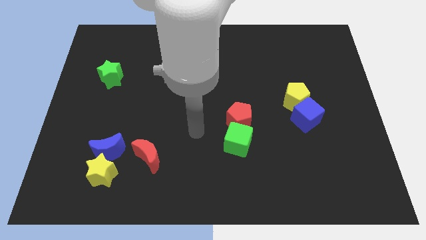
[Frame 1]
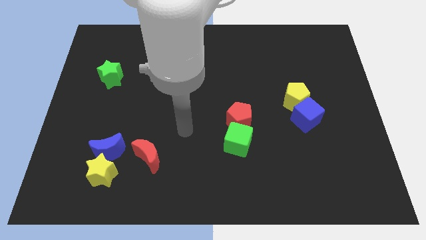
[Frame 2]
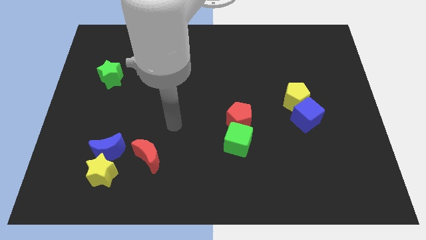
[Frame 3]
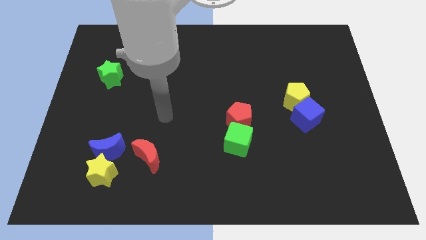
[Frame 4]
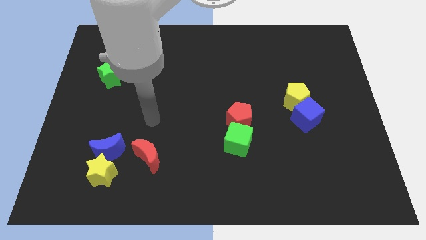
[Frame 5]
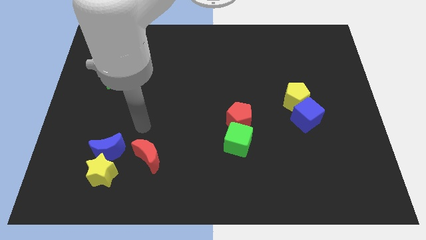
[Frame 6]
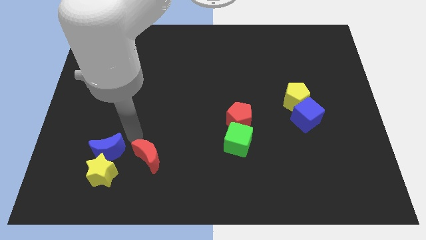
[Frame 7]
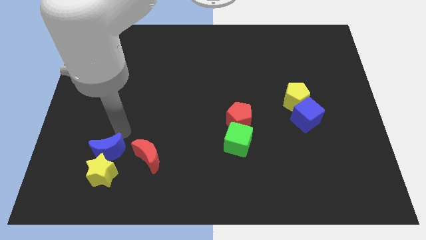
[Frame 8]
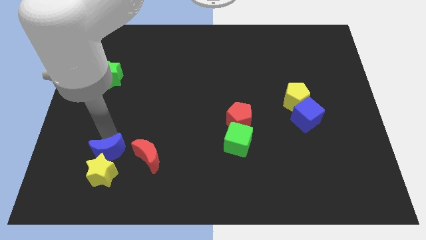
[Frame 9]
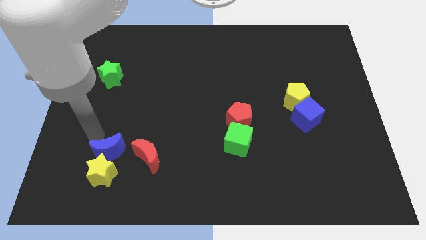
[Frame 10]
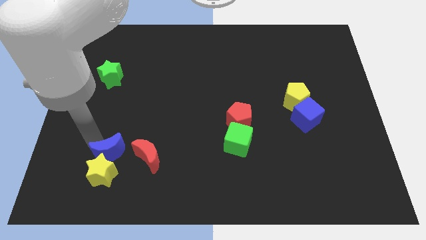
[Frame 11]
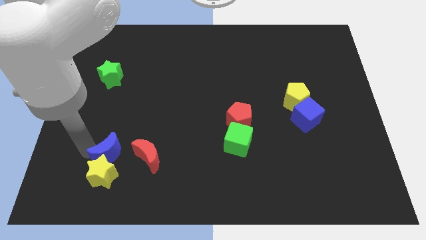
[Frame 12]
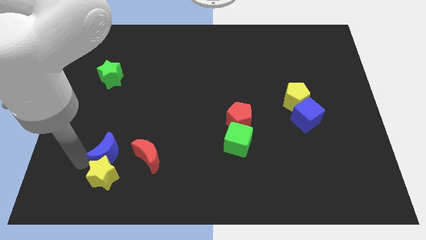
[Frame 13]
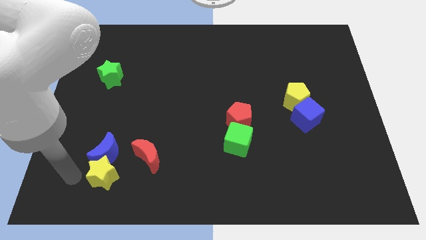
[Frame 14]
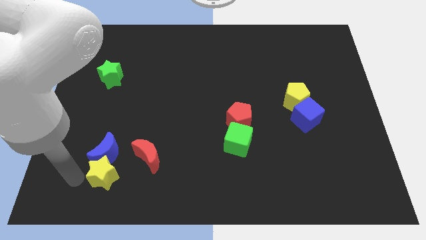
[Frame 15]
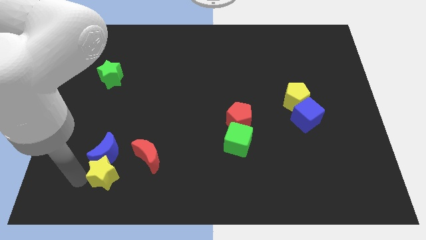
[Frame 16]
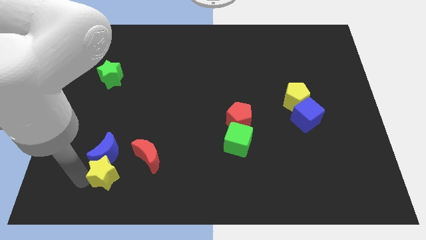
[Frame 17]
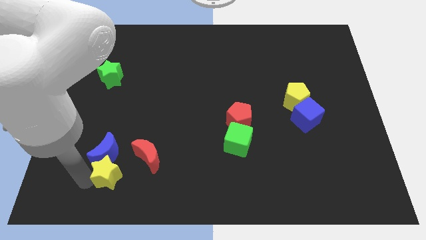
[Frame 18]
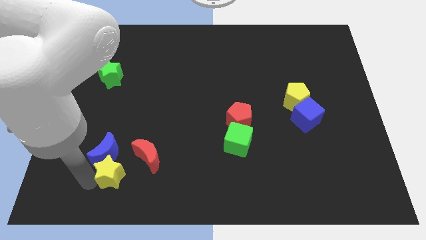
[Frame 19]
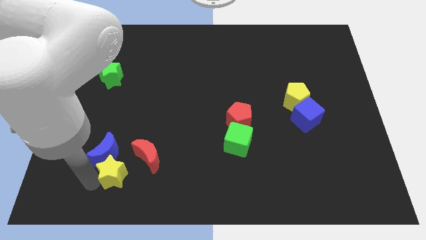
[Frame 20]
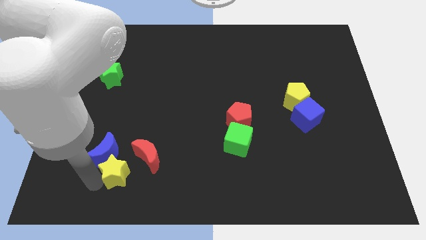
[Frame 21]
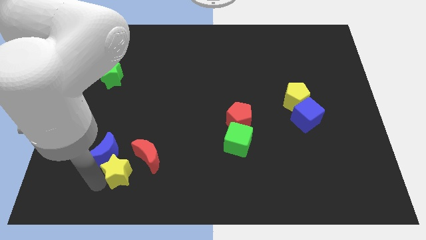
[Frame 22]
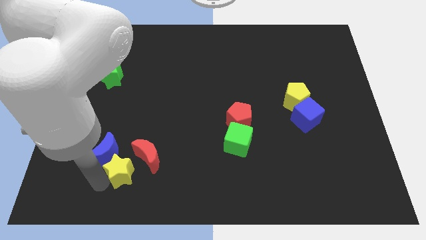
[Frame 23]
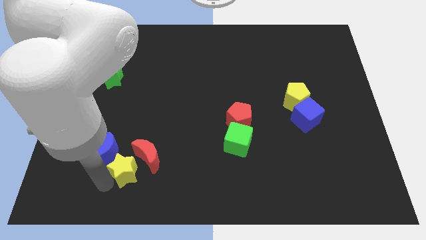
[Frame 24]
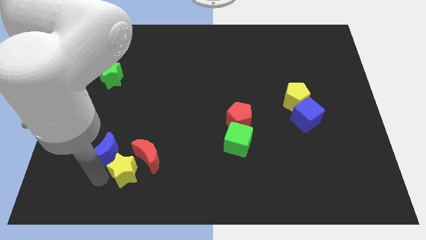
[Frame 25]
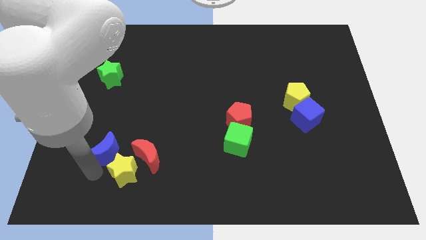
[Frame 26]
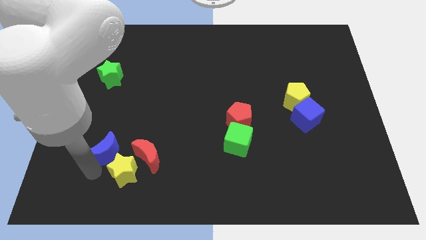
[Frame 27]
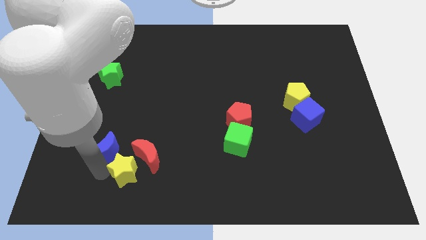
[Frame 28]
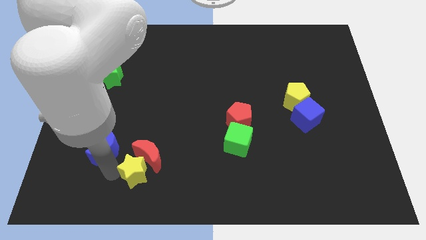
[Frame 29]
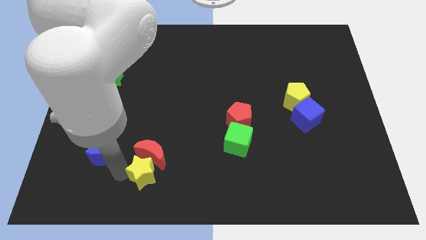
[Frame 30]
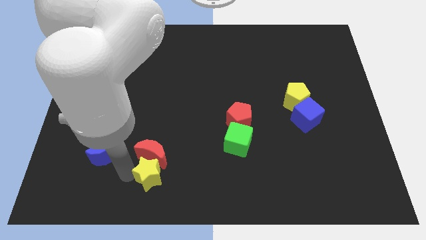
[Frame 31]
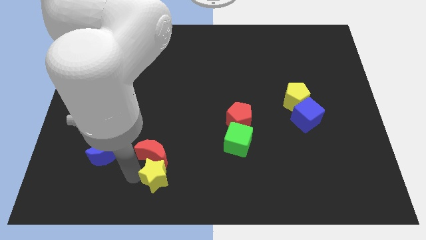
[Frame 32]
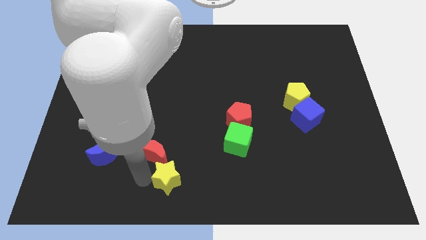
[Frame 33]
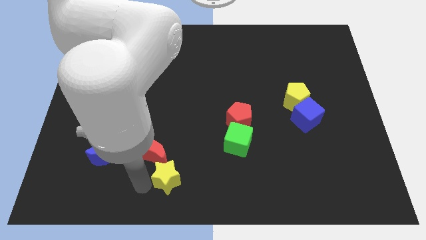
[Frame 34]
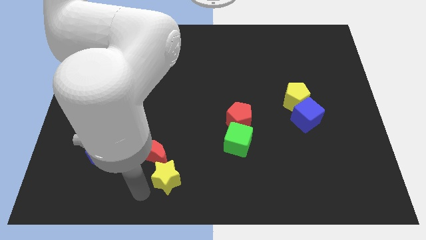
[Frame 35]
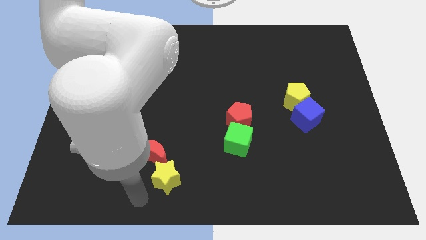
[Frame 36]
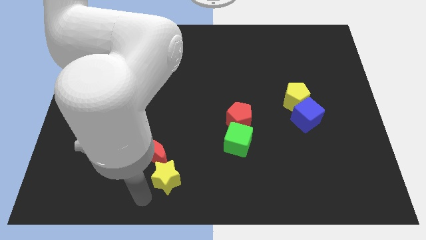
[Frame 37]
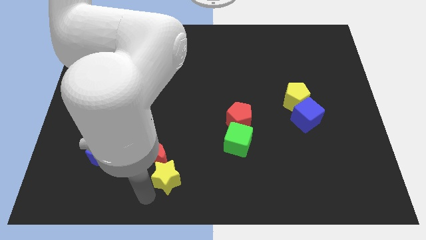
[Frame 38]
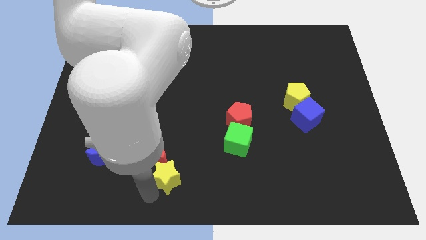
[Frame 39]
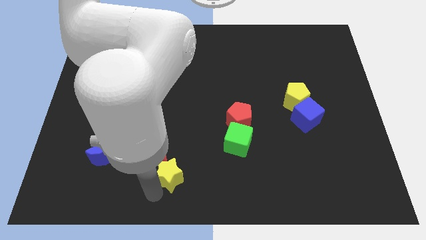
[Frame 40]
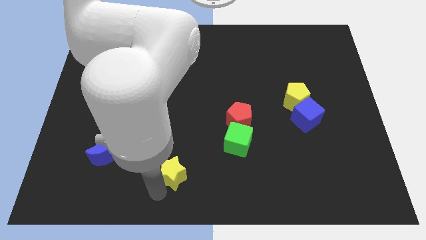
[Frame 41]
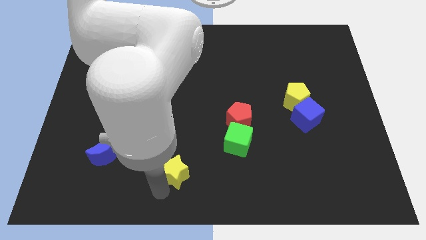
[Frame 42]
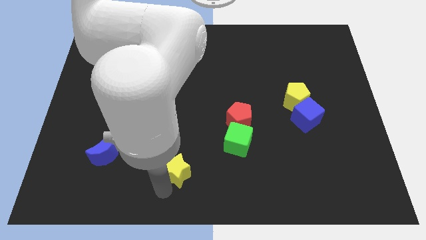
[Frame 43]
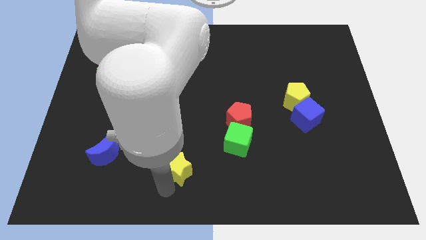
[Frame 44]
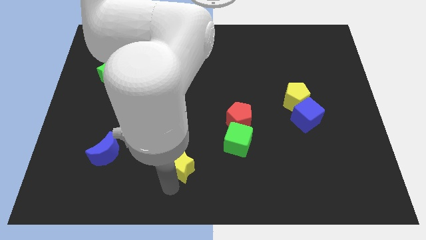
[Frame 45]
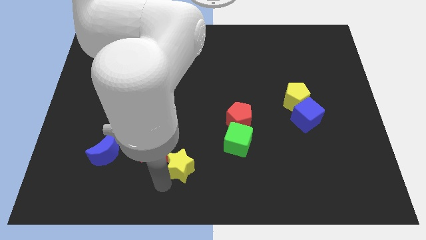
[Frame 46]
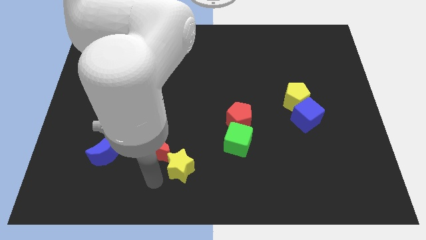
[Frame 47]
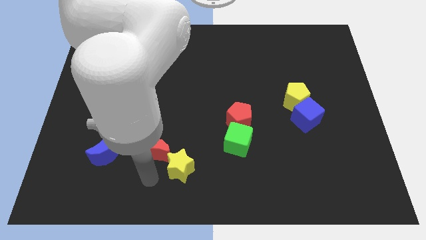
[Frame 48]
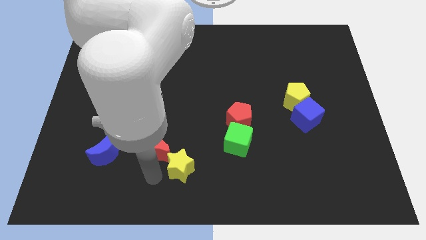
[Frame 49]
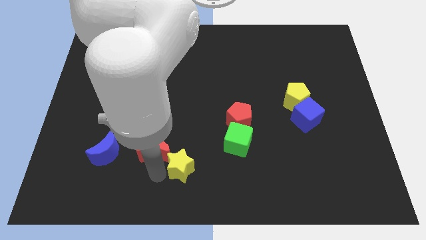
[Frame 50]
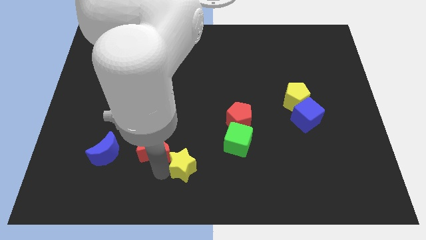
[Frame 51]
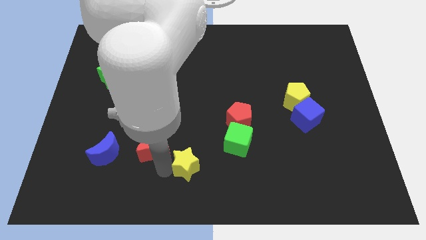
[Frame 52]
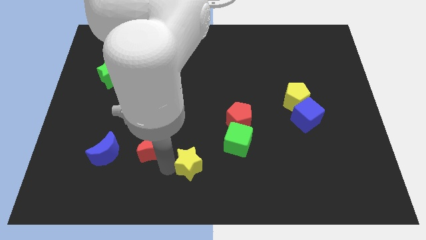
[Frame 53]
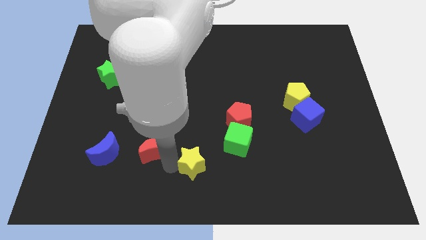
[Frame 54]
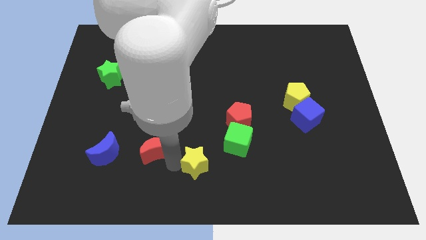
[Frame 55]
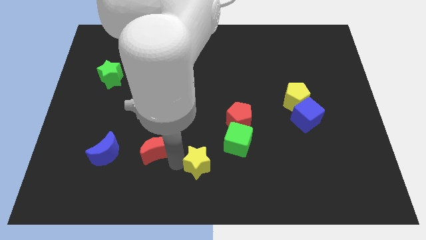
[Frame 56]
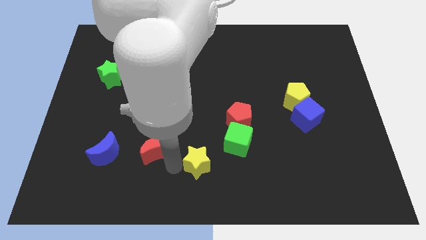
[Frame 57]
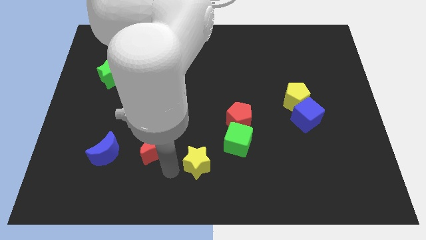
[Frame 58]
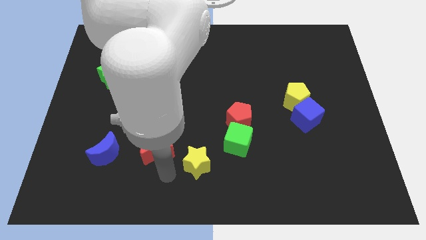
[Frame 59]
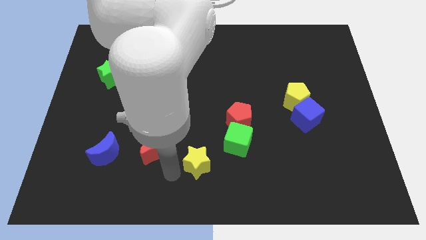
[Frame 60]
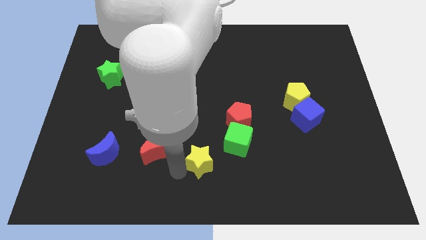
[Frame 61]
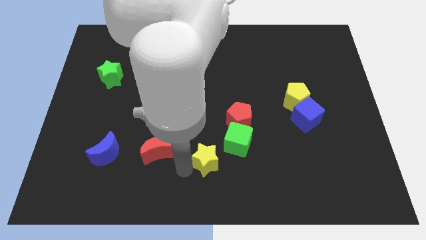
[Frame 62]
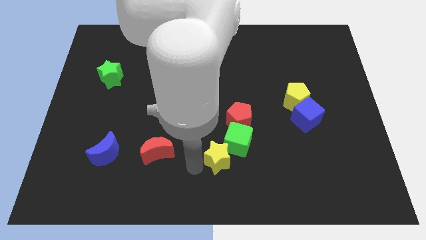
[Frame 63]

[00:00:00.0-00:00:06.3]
slide the yellow star towards the green cube
